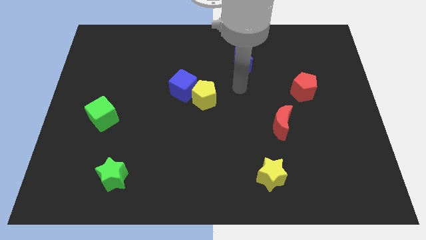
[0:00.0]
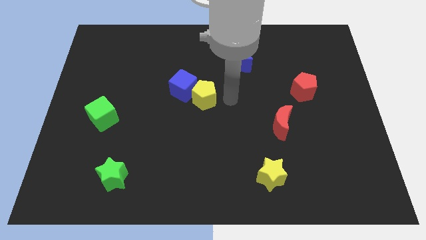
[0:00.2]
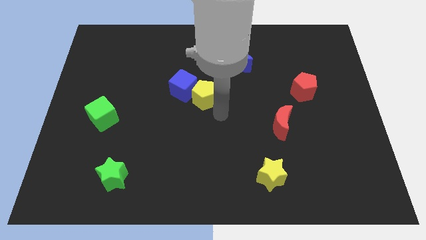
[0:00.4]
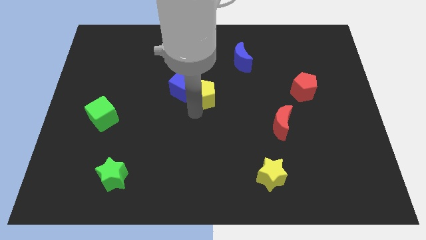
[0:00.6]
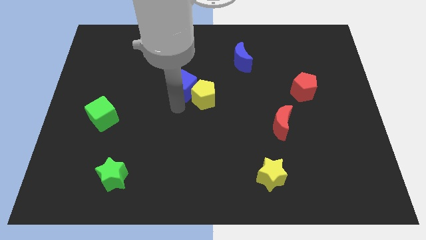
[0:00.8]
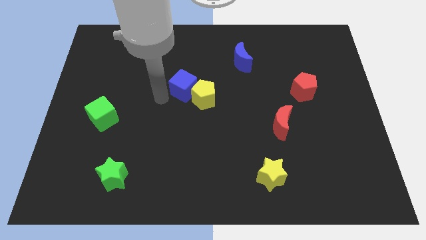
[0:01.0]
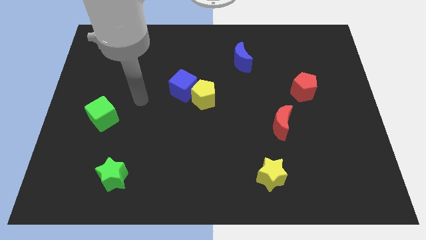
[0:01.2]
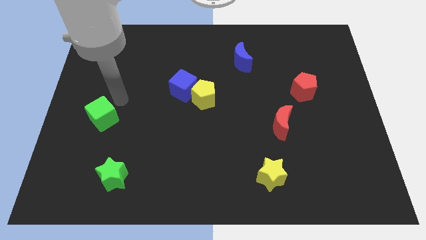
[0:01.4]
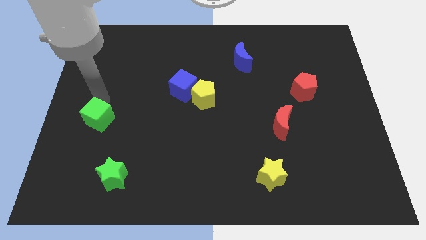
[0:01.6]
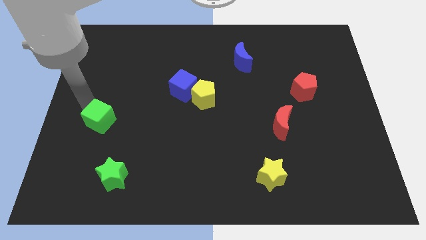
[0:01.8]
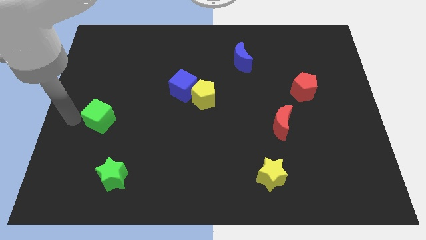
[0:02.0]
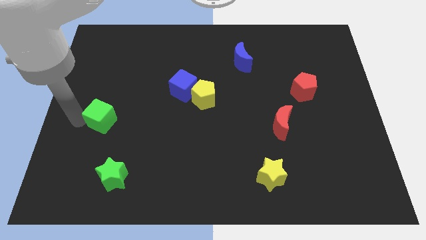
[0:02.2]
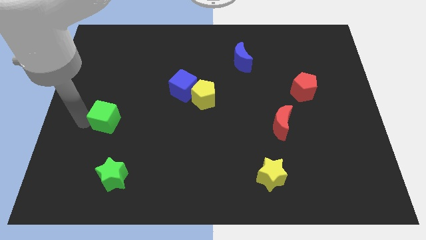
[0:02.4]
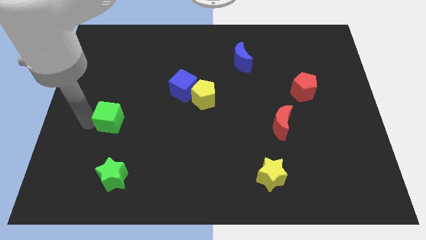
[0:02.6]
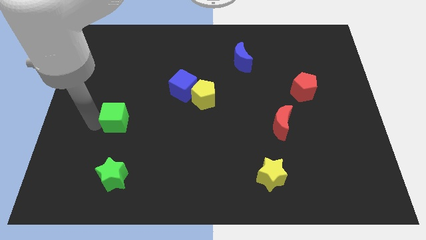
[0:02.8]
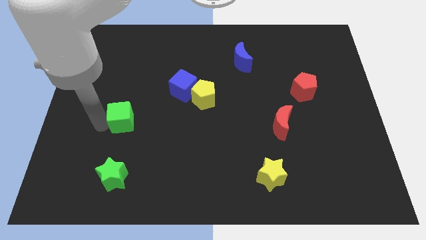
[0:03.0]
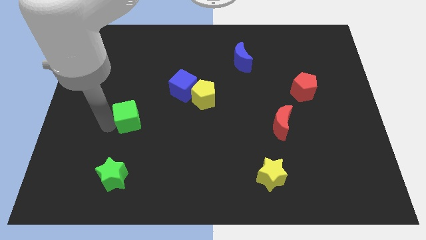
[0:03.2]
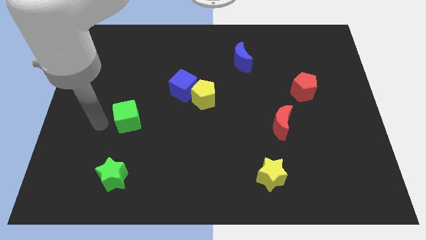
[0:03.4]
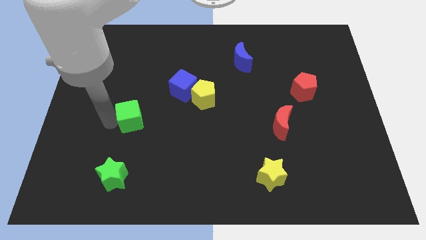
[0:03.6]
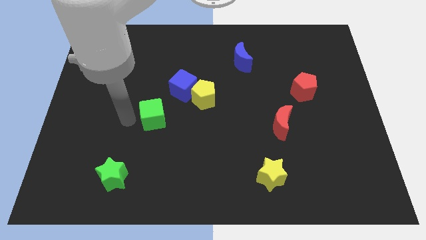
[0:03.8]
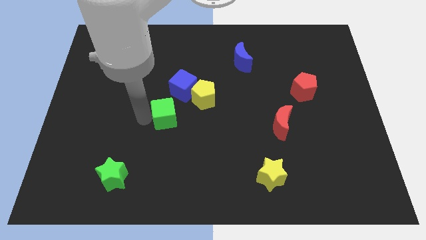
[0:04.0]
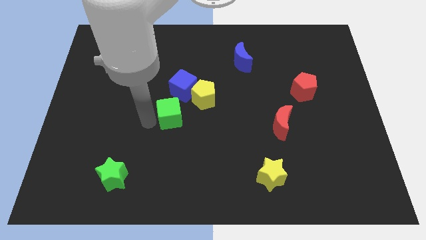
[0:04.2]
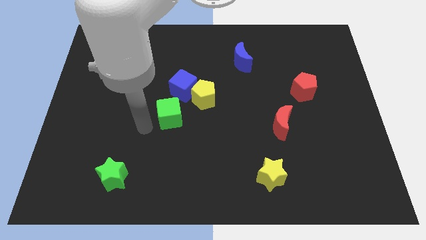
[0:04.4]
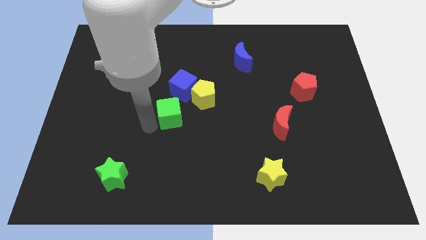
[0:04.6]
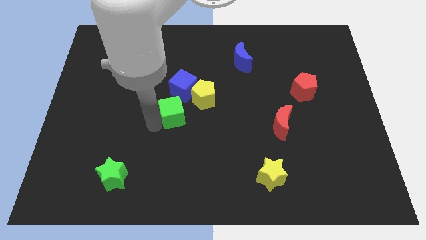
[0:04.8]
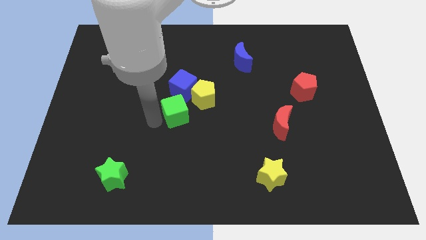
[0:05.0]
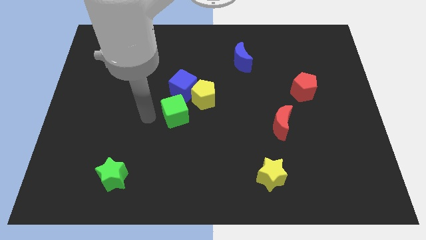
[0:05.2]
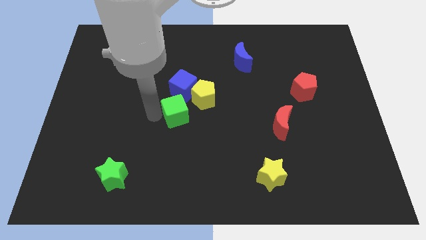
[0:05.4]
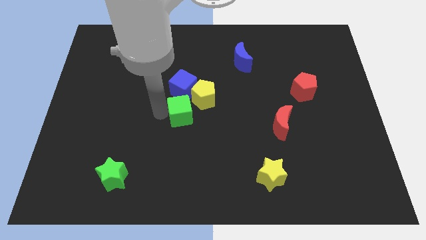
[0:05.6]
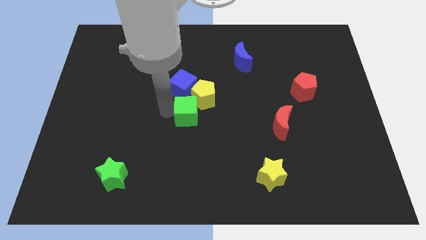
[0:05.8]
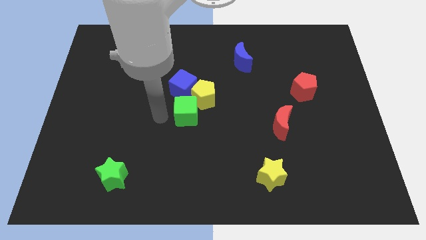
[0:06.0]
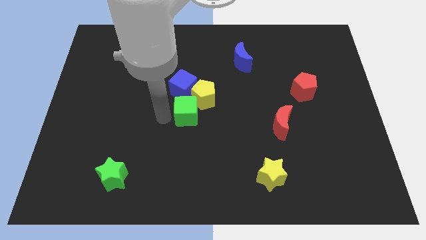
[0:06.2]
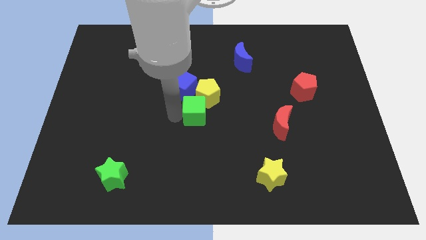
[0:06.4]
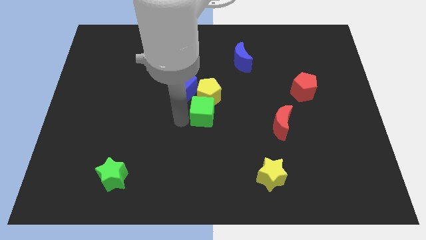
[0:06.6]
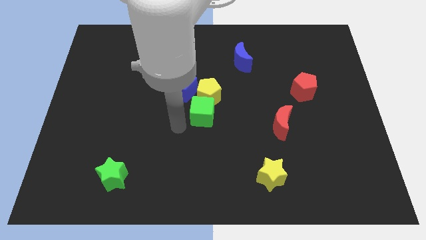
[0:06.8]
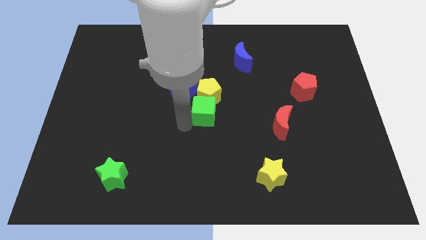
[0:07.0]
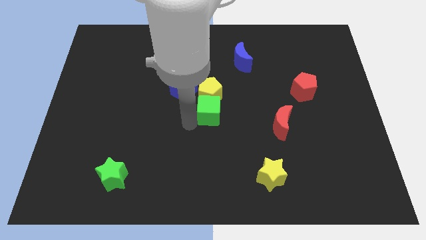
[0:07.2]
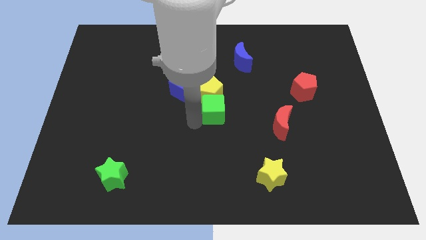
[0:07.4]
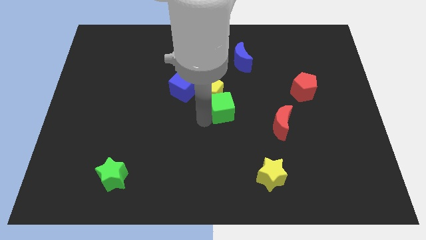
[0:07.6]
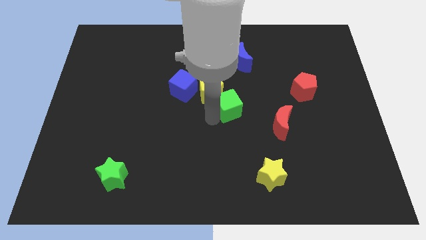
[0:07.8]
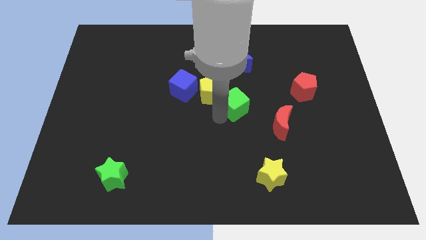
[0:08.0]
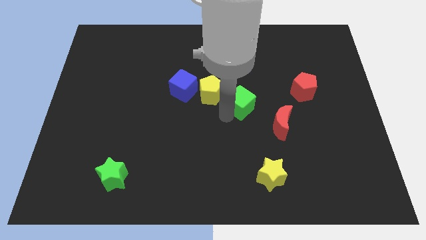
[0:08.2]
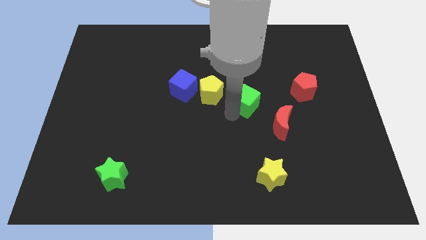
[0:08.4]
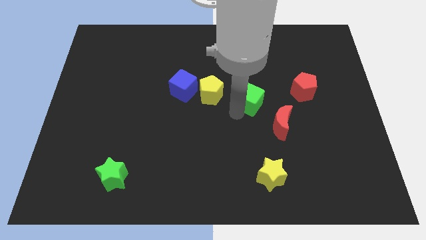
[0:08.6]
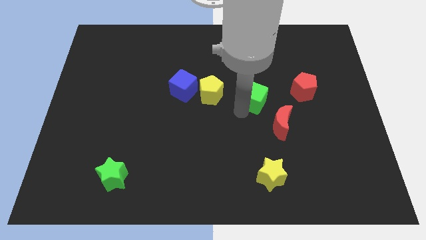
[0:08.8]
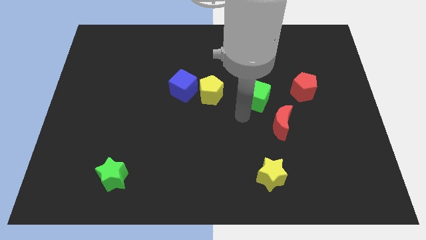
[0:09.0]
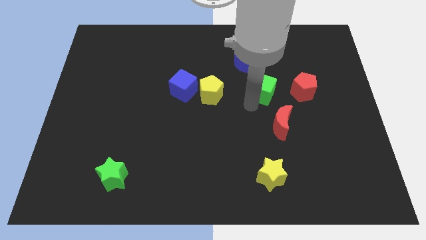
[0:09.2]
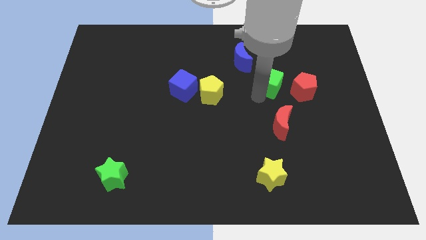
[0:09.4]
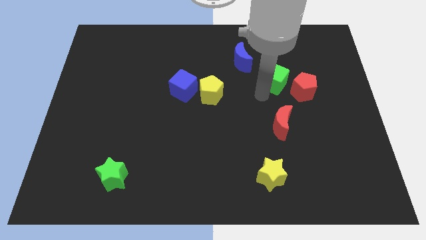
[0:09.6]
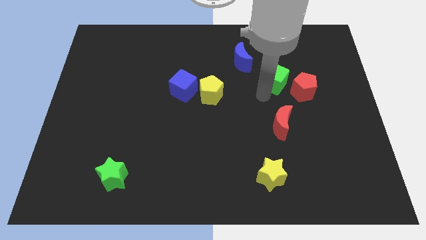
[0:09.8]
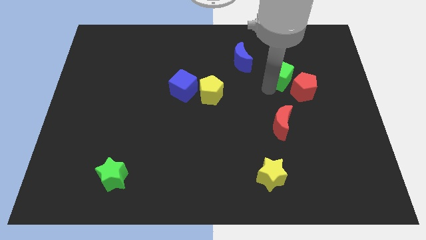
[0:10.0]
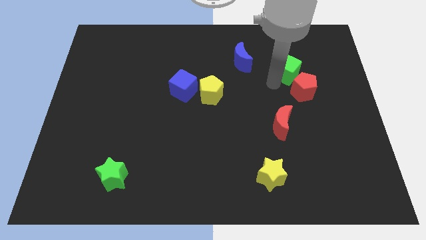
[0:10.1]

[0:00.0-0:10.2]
move the green cube above the red pentagon

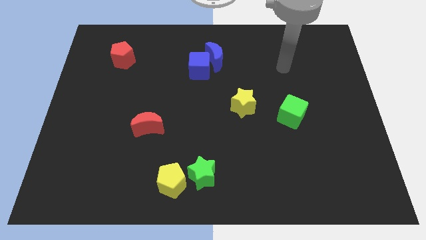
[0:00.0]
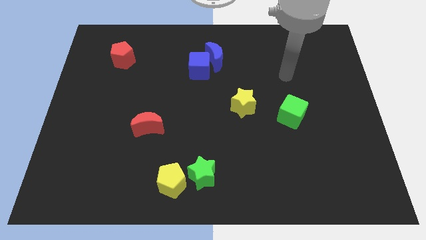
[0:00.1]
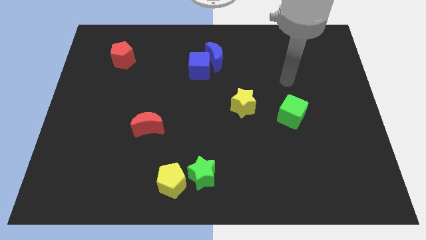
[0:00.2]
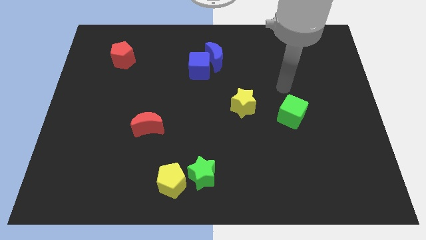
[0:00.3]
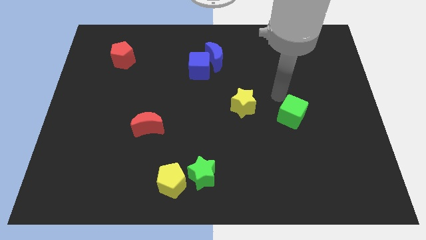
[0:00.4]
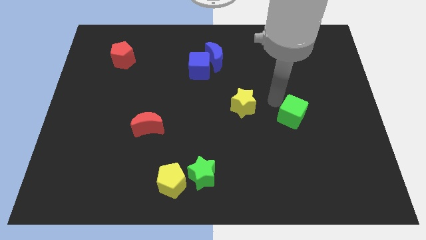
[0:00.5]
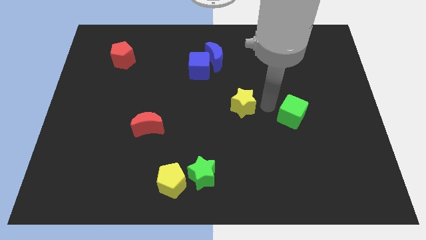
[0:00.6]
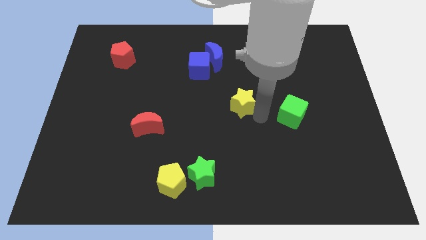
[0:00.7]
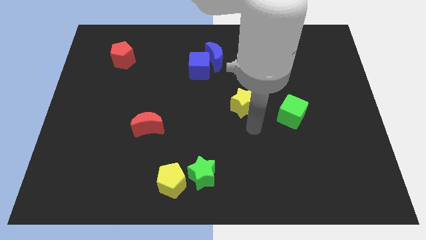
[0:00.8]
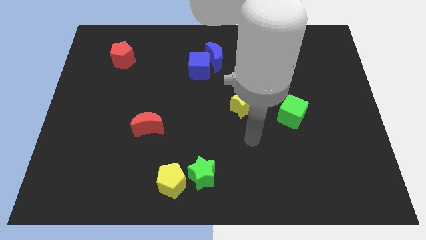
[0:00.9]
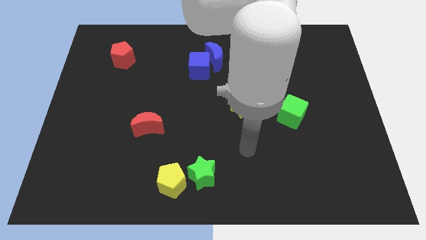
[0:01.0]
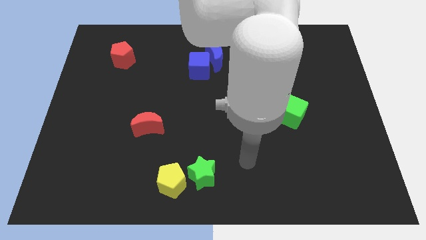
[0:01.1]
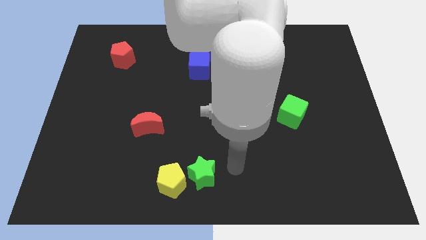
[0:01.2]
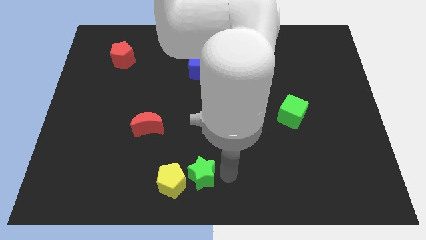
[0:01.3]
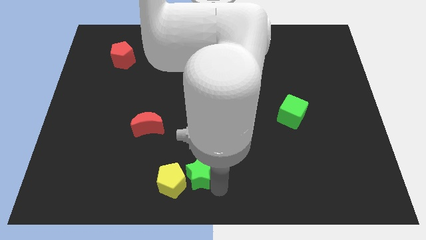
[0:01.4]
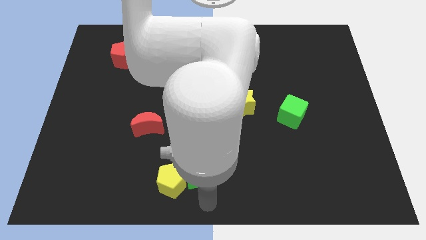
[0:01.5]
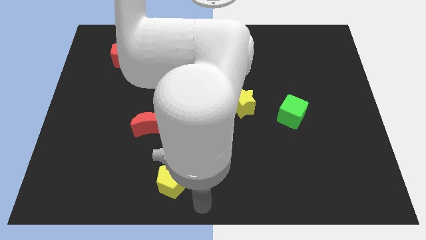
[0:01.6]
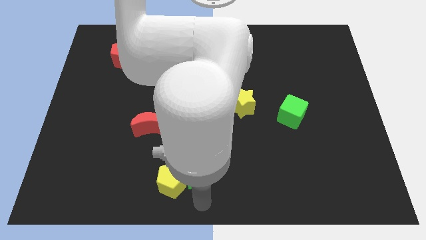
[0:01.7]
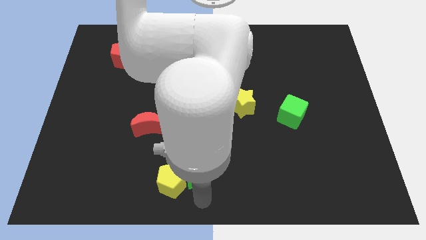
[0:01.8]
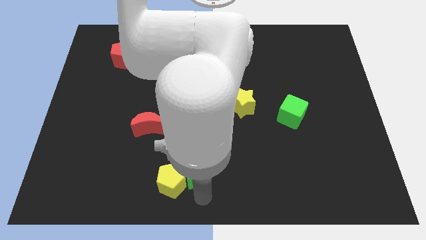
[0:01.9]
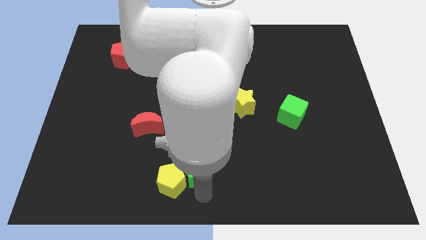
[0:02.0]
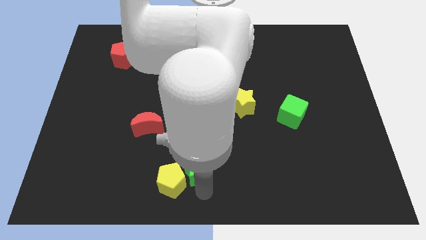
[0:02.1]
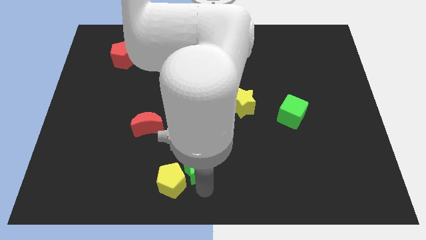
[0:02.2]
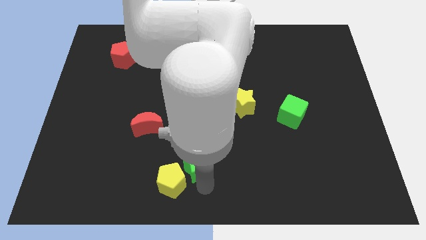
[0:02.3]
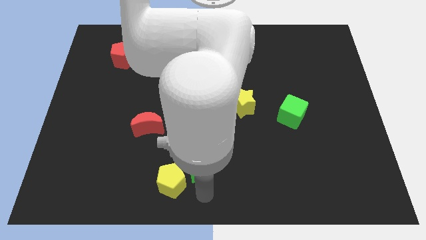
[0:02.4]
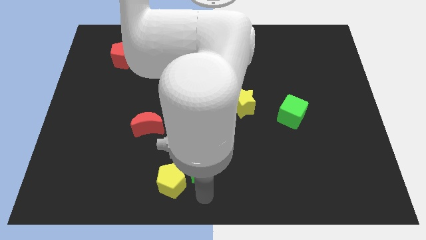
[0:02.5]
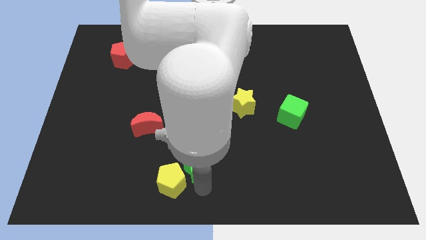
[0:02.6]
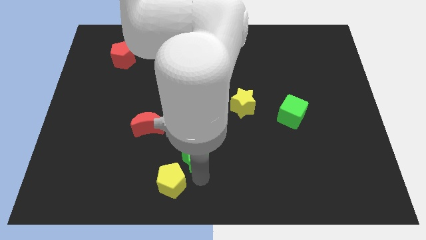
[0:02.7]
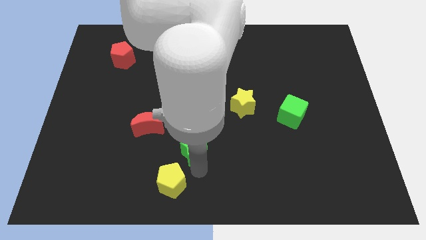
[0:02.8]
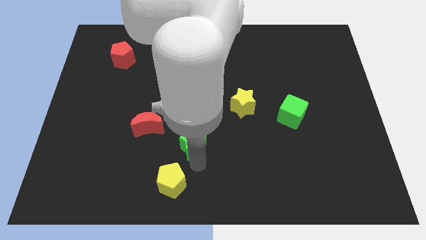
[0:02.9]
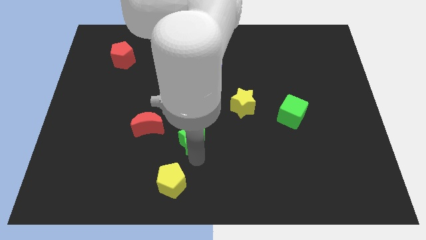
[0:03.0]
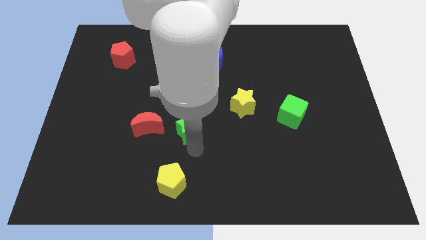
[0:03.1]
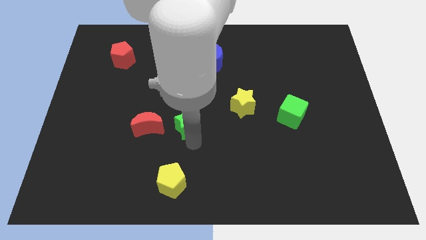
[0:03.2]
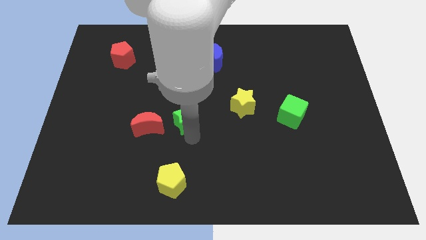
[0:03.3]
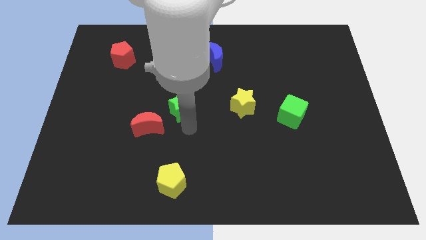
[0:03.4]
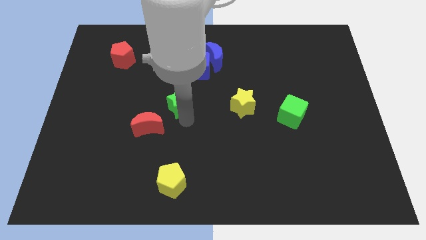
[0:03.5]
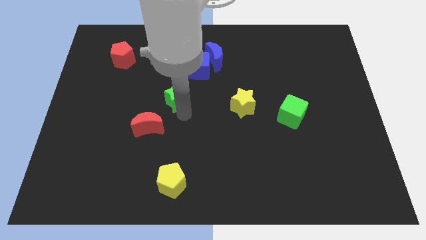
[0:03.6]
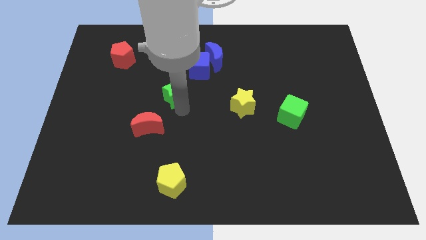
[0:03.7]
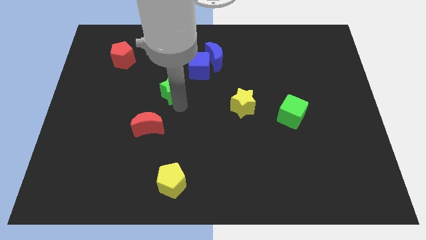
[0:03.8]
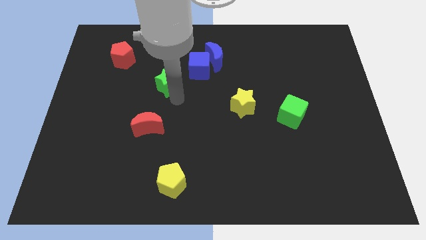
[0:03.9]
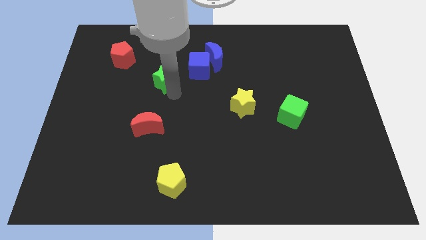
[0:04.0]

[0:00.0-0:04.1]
slide the green star to the left side of the blue cube
